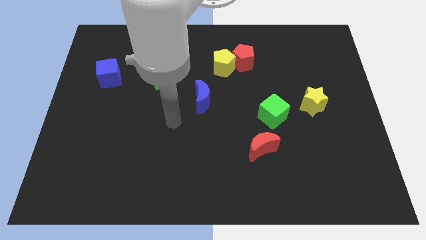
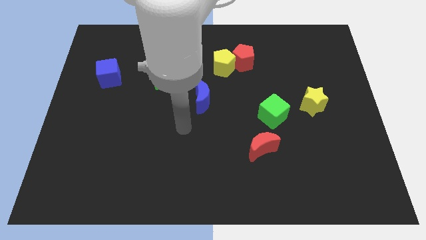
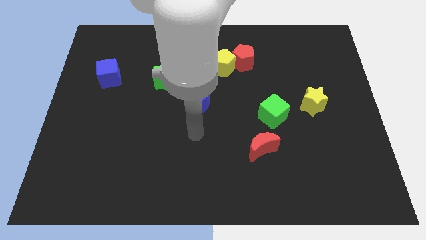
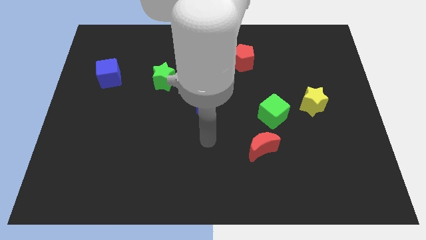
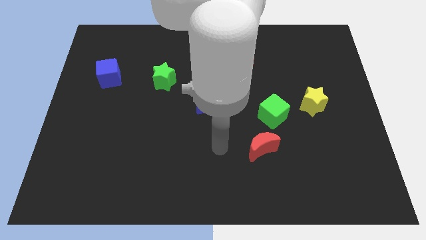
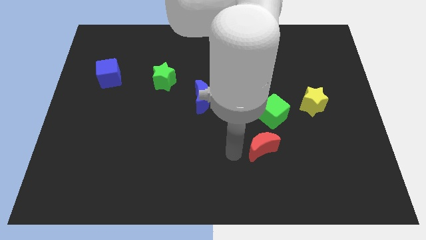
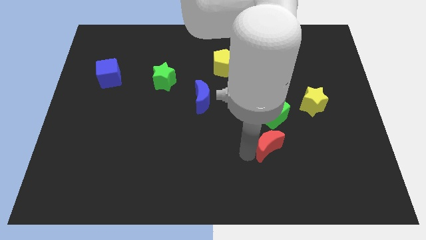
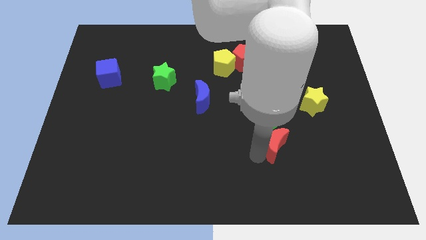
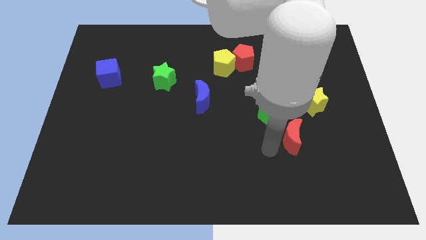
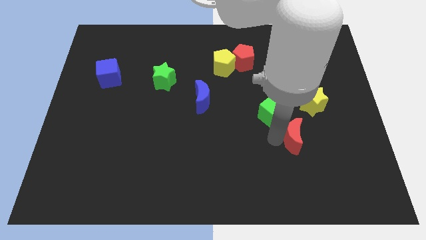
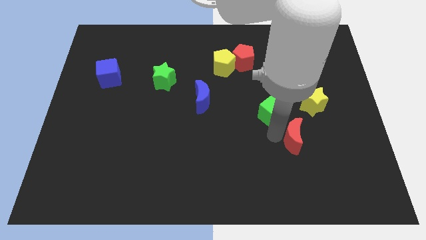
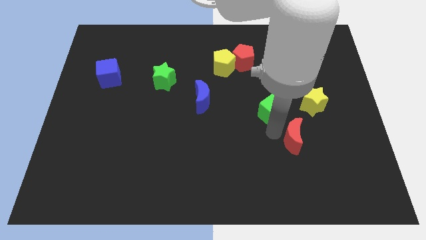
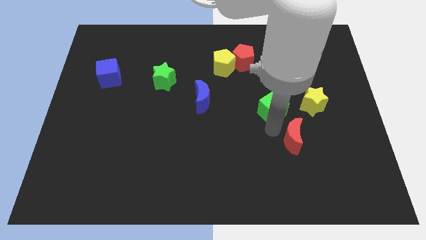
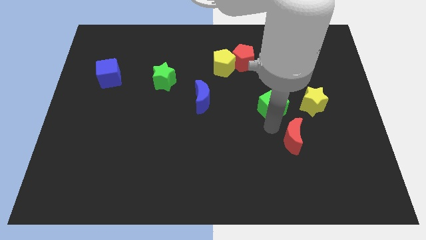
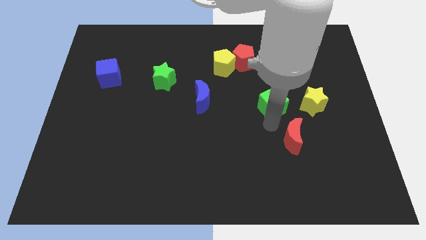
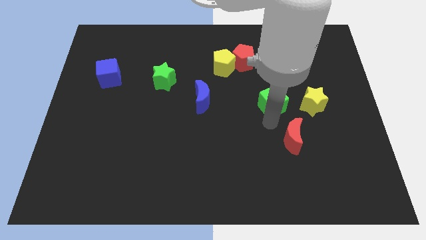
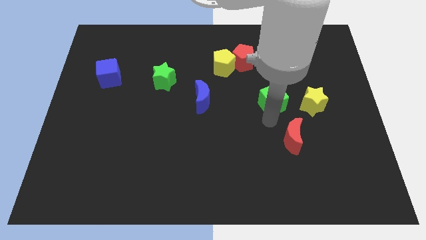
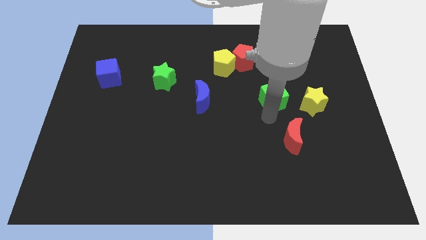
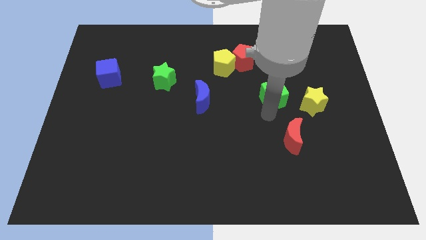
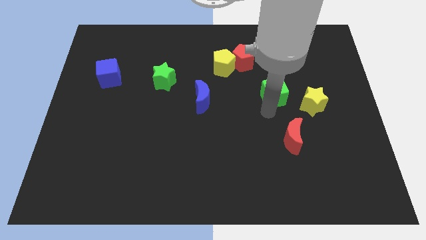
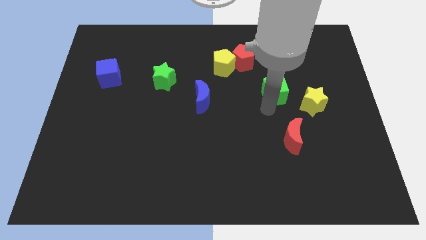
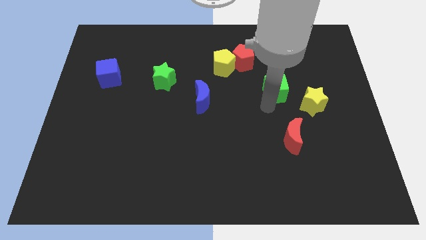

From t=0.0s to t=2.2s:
push the green cube upwards slightly

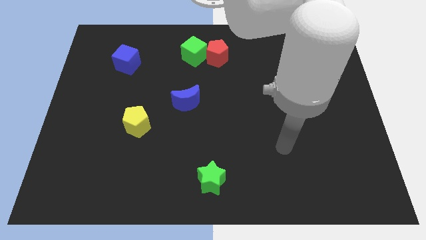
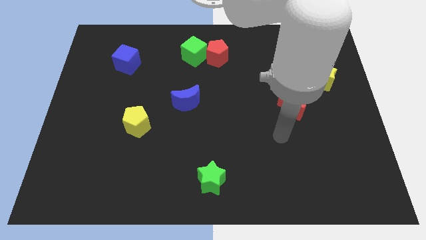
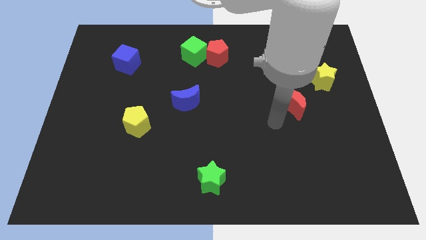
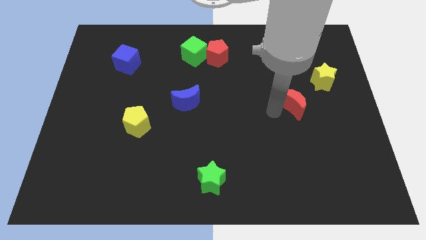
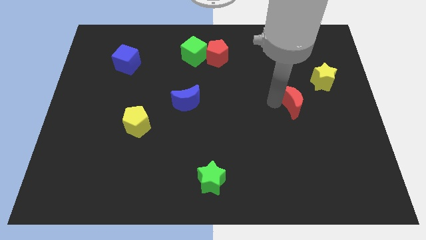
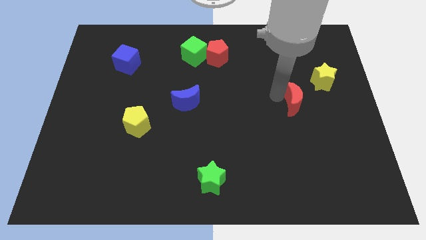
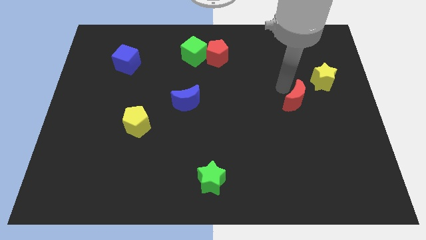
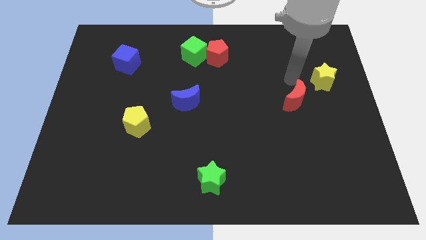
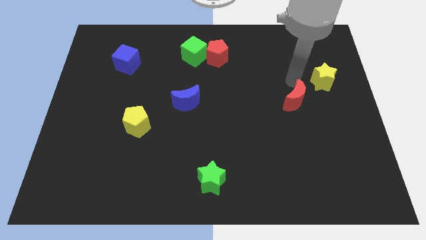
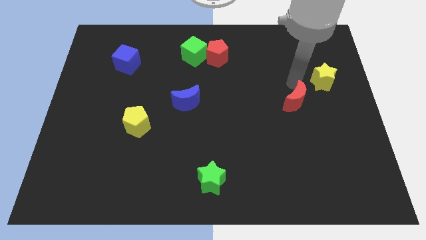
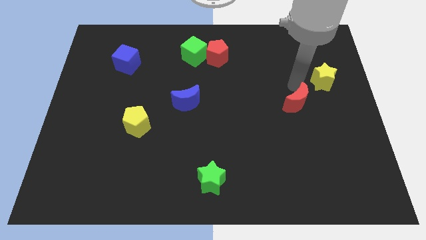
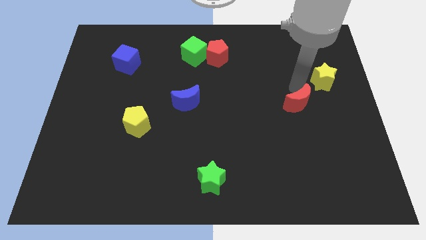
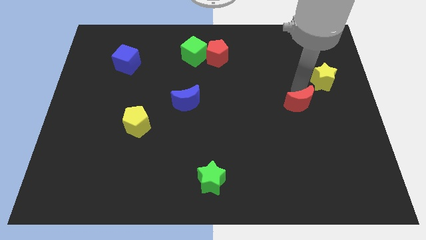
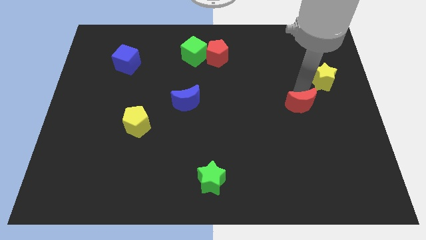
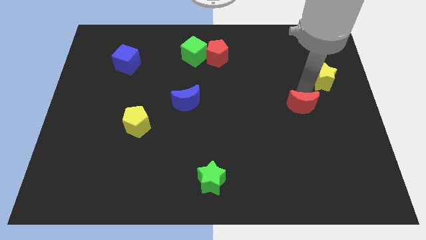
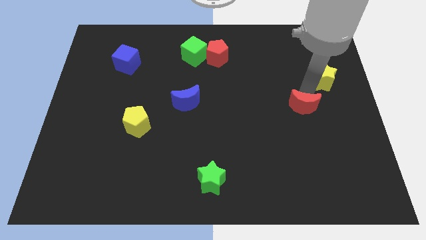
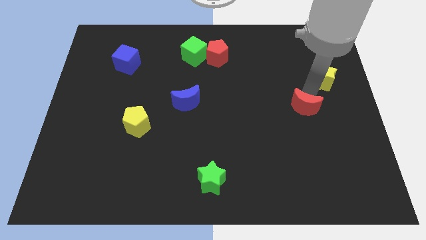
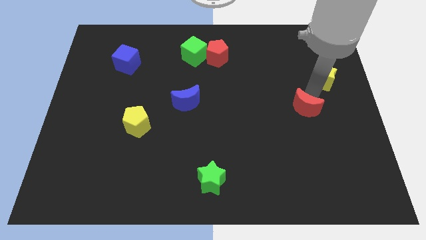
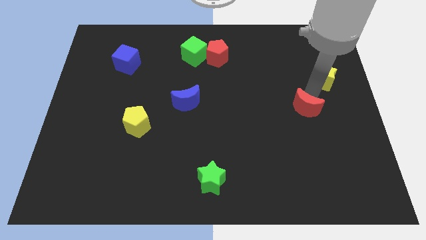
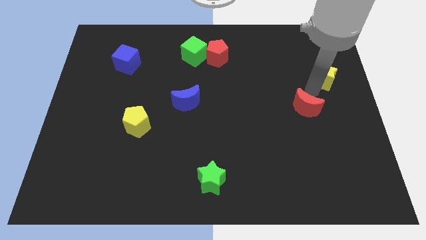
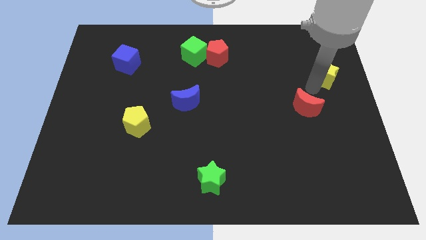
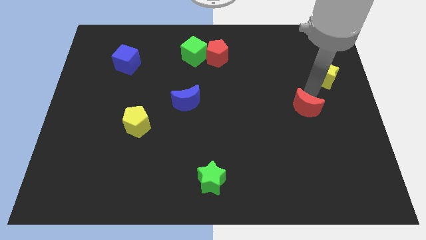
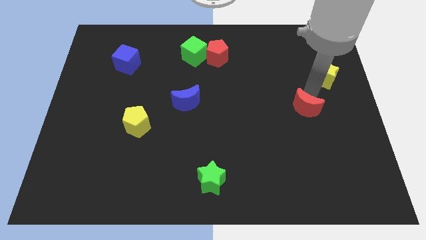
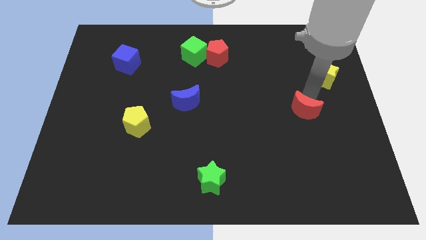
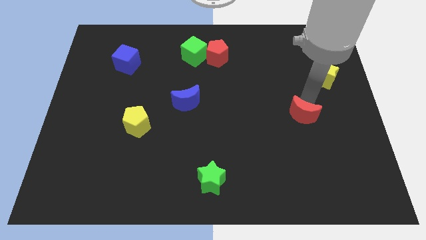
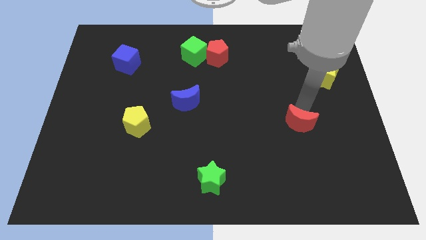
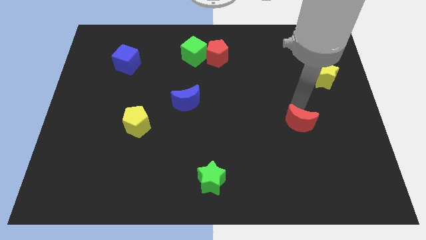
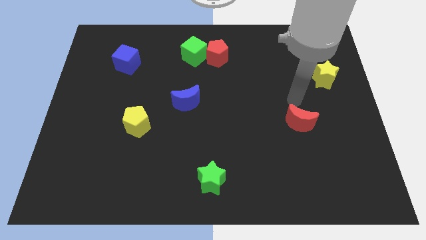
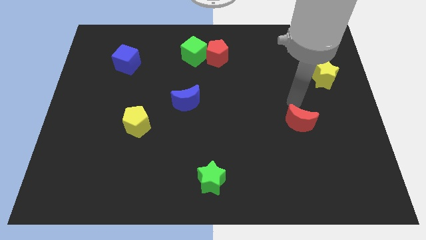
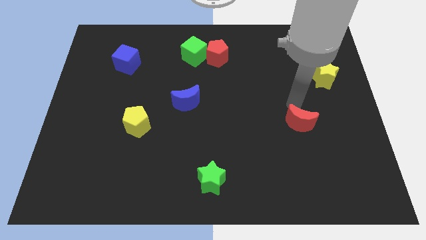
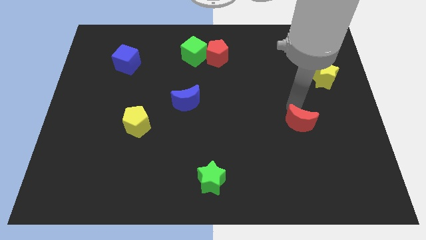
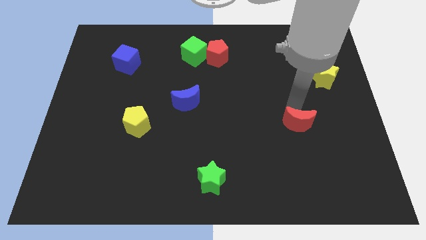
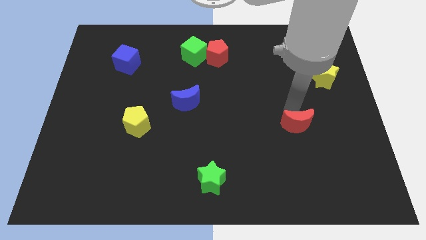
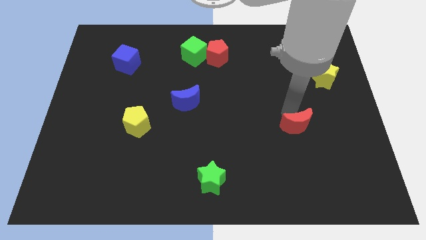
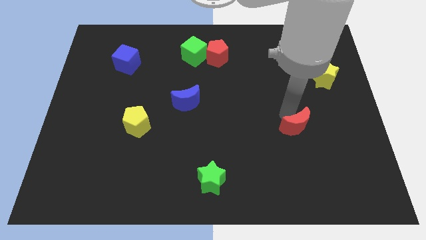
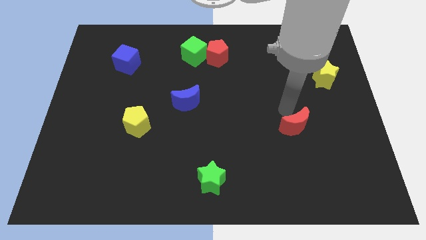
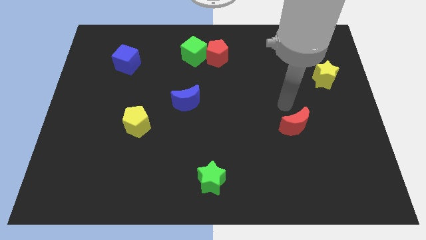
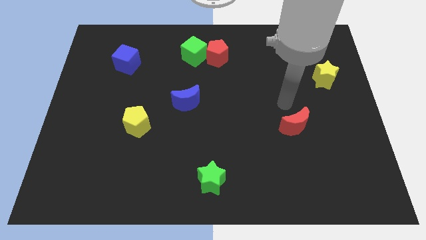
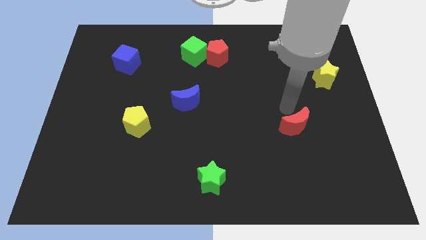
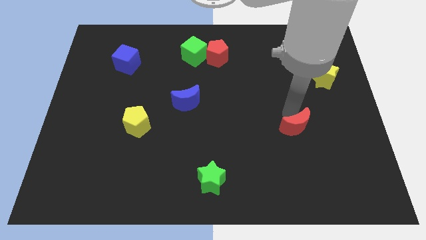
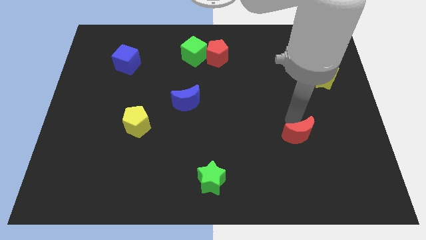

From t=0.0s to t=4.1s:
slightly slide the red moon down

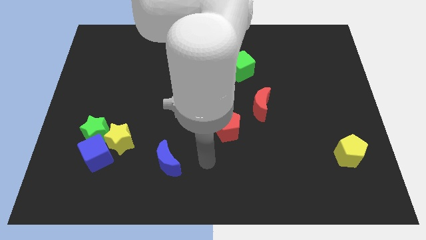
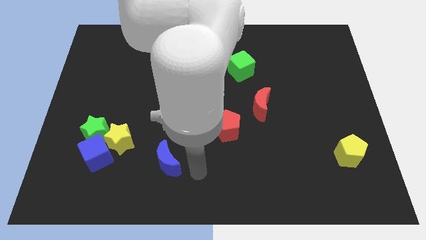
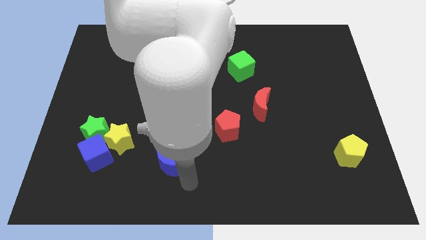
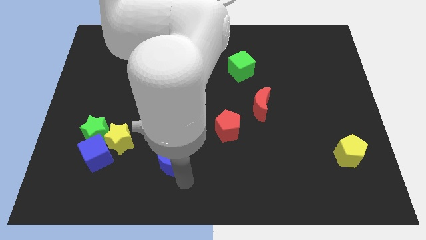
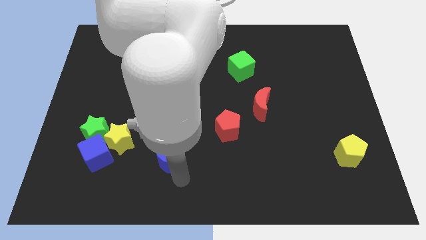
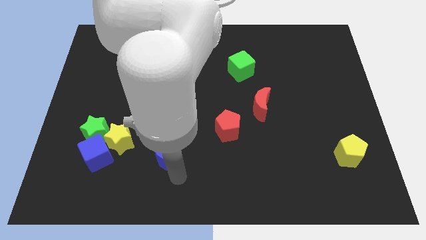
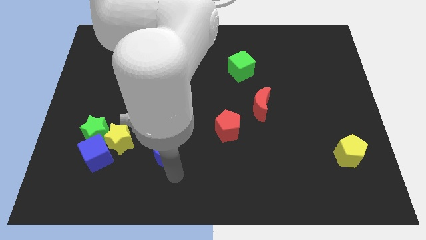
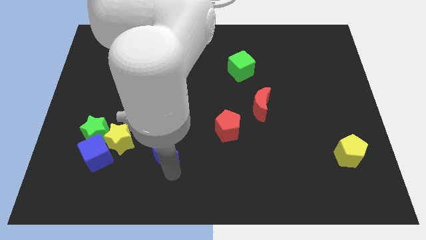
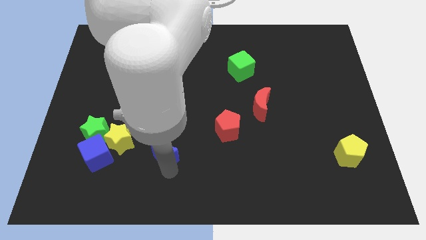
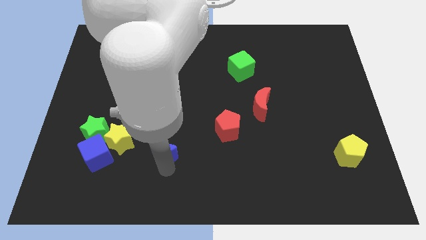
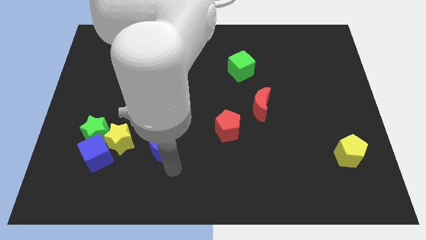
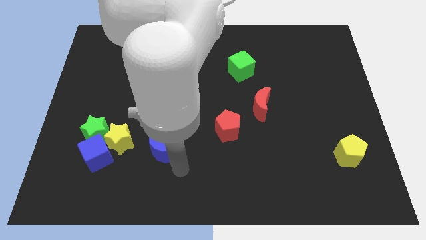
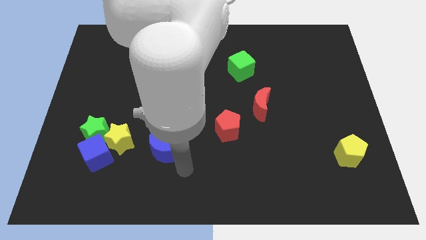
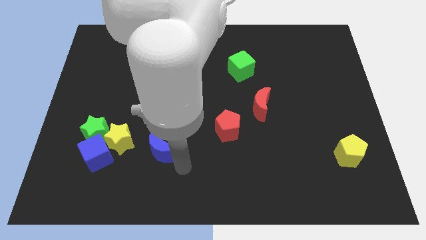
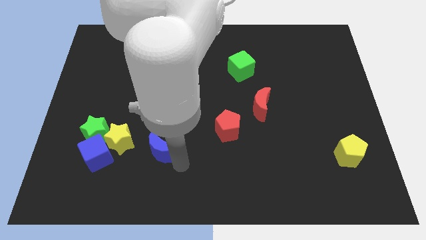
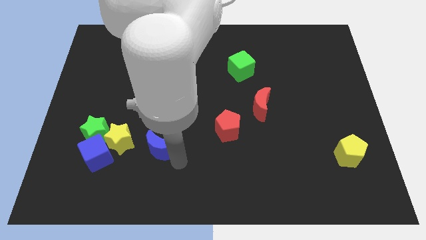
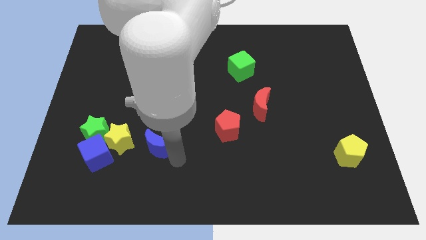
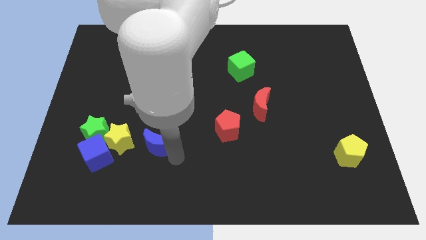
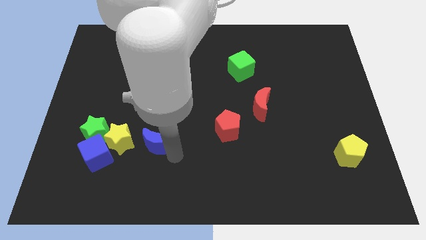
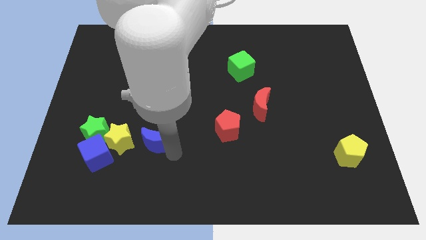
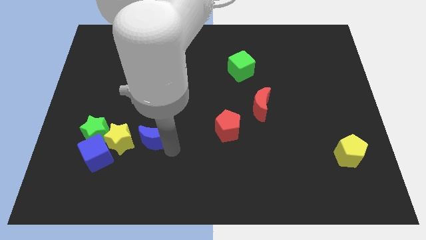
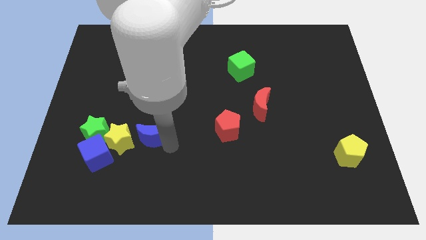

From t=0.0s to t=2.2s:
move the blue moon diagonally up and to the left a little
